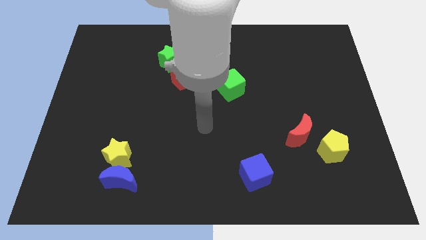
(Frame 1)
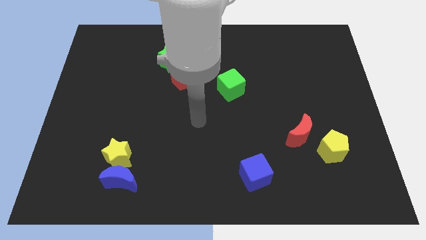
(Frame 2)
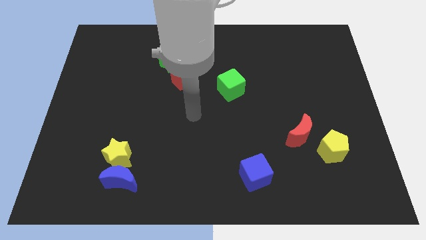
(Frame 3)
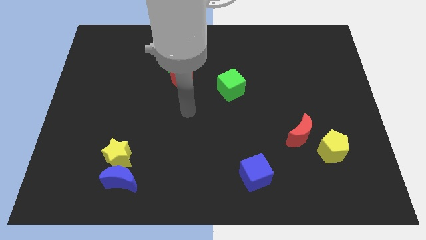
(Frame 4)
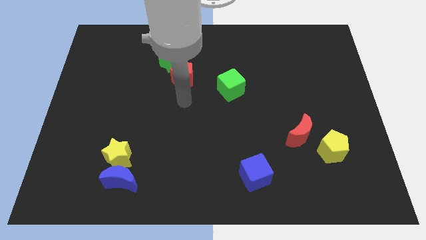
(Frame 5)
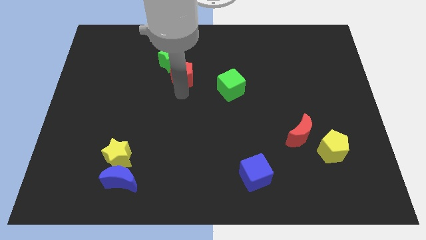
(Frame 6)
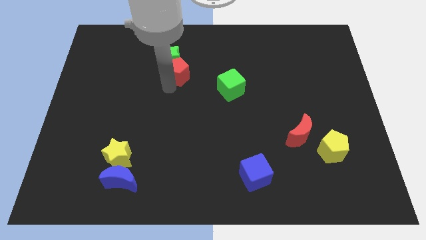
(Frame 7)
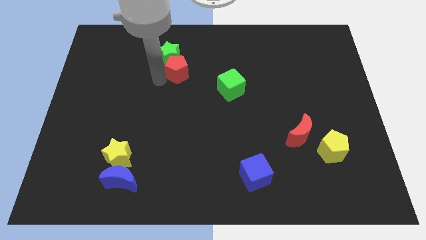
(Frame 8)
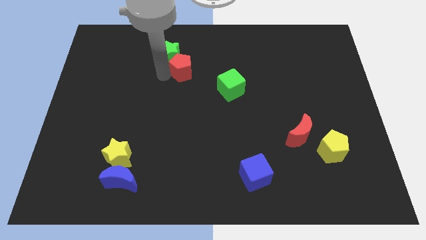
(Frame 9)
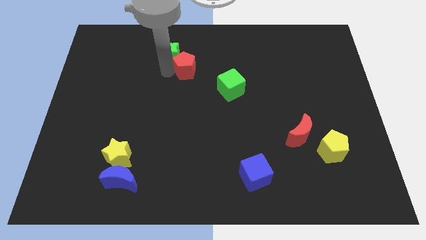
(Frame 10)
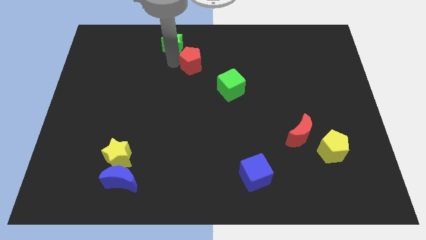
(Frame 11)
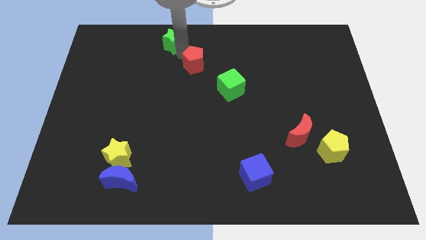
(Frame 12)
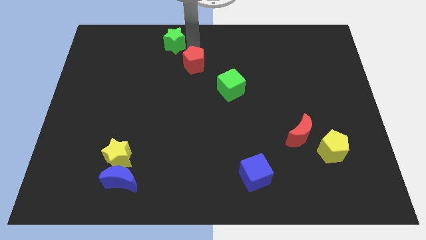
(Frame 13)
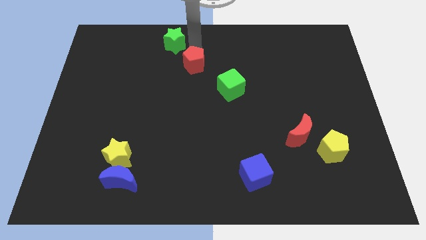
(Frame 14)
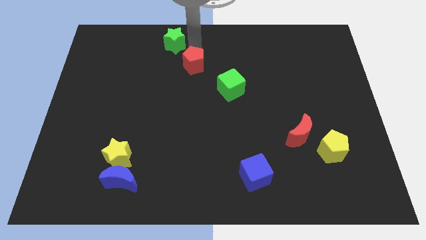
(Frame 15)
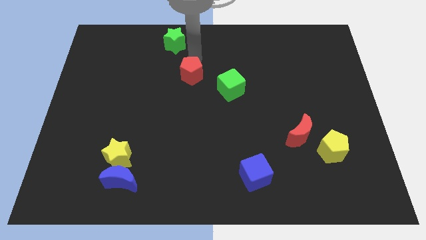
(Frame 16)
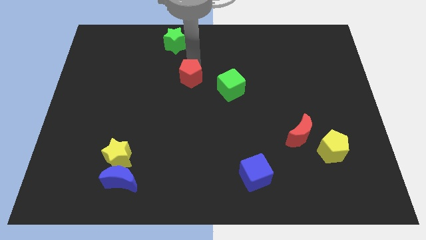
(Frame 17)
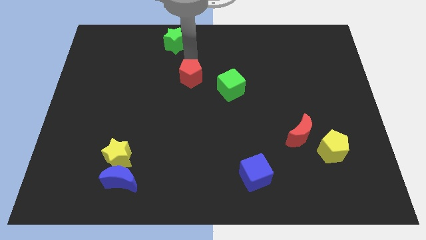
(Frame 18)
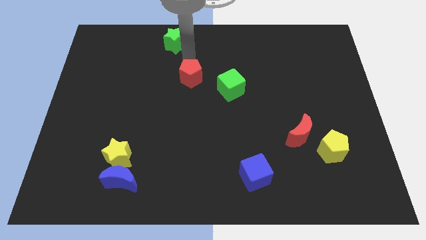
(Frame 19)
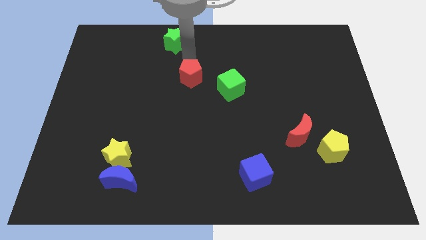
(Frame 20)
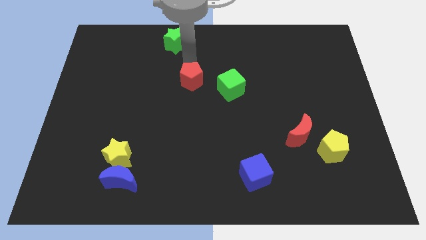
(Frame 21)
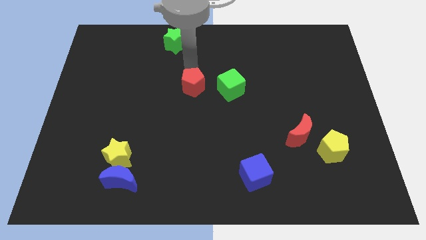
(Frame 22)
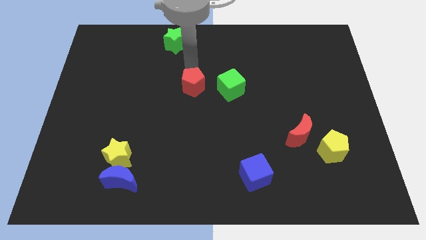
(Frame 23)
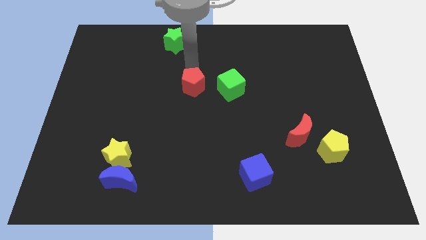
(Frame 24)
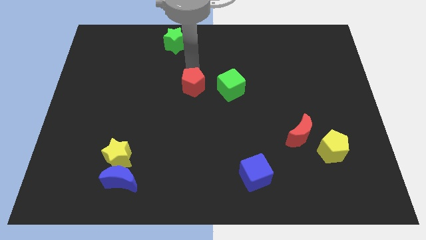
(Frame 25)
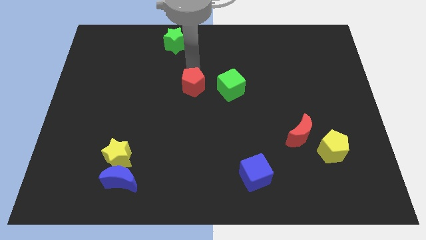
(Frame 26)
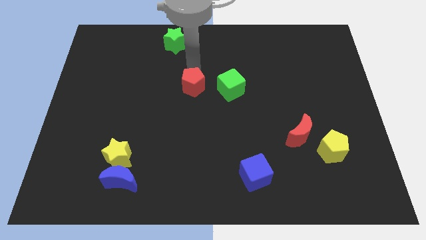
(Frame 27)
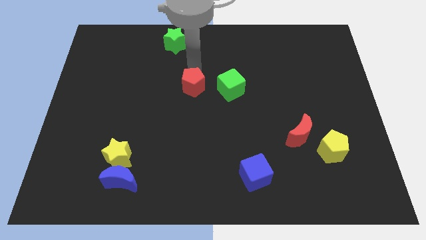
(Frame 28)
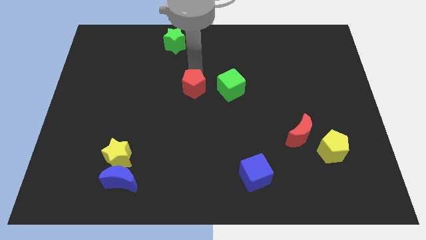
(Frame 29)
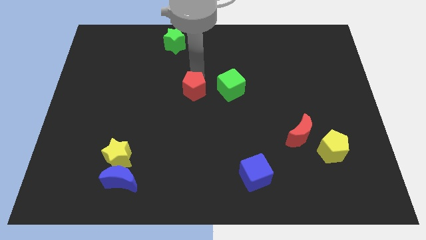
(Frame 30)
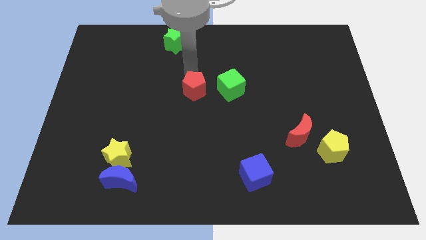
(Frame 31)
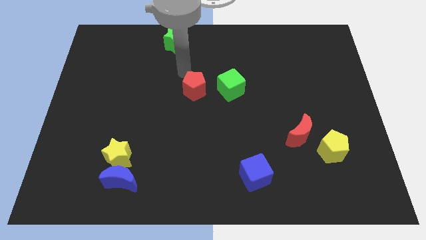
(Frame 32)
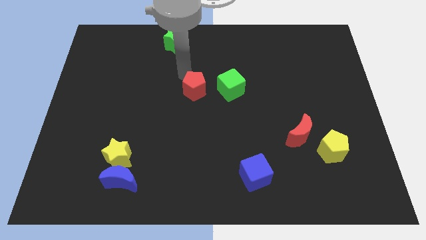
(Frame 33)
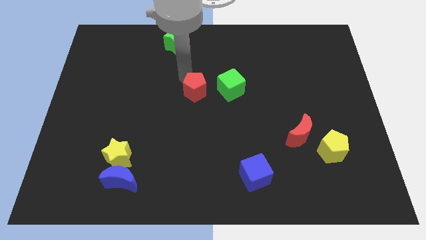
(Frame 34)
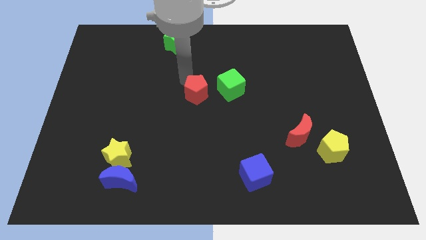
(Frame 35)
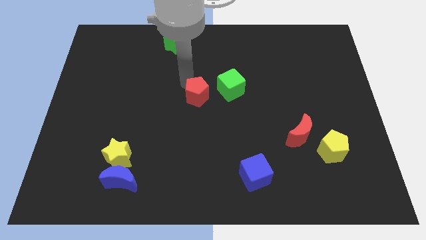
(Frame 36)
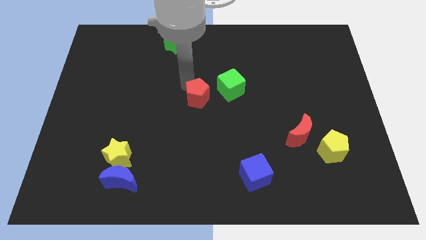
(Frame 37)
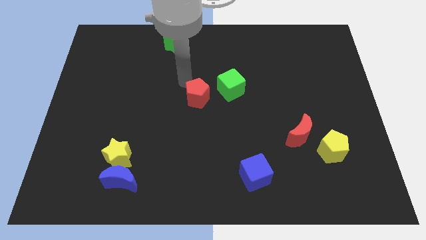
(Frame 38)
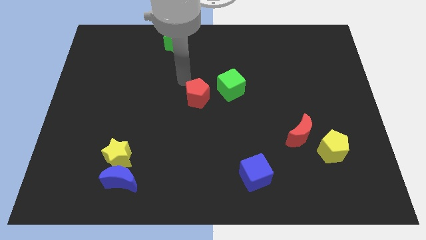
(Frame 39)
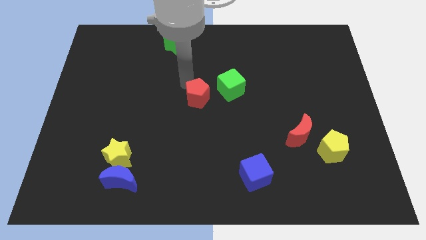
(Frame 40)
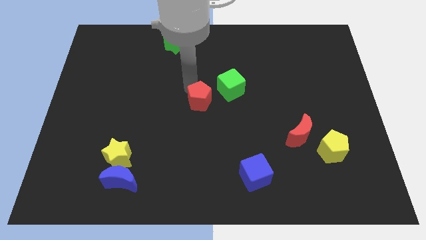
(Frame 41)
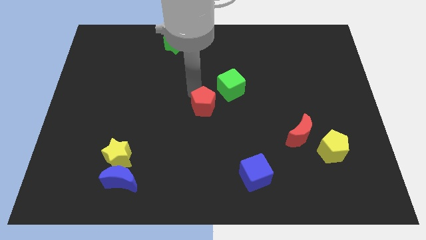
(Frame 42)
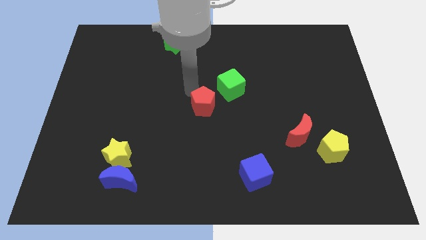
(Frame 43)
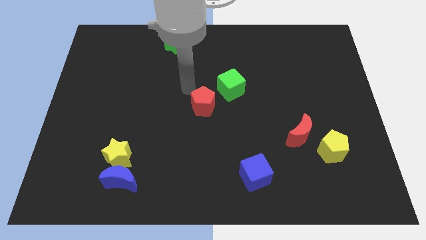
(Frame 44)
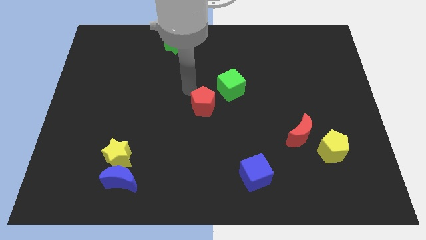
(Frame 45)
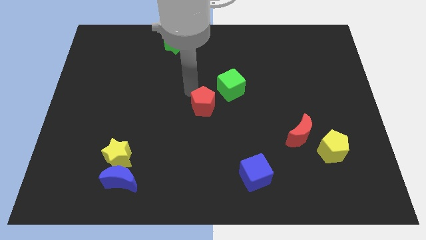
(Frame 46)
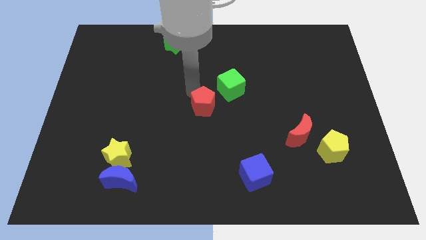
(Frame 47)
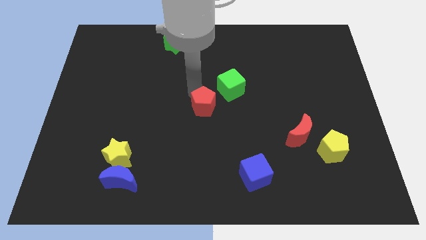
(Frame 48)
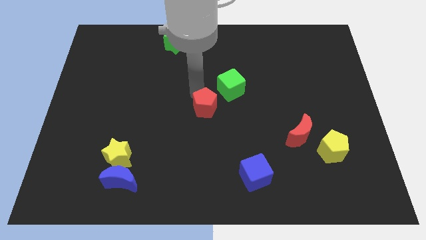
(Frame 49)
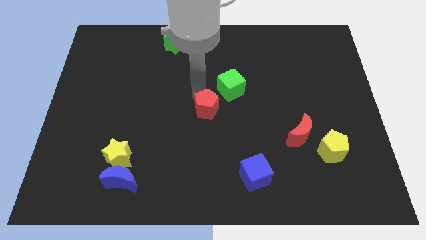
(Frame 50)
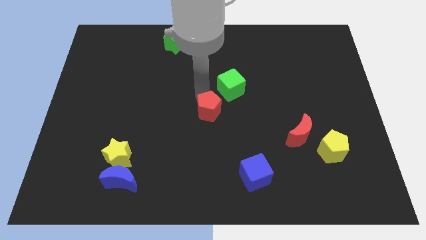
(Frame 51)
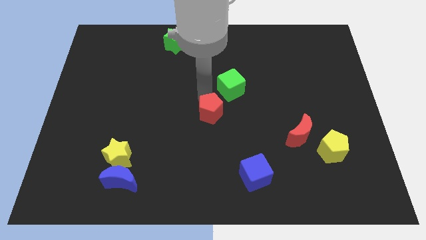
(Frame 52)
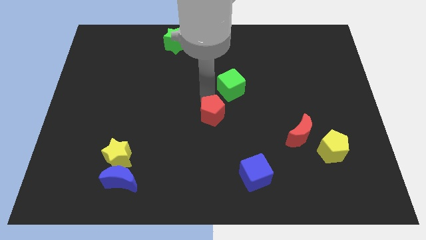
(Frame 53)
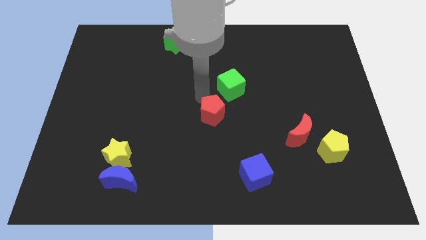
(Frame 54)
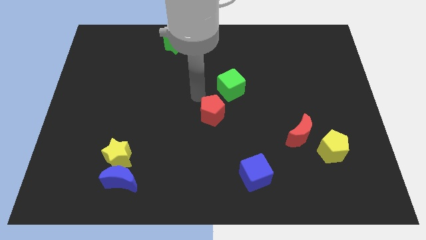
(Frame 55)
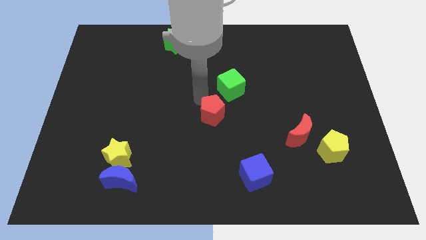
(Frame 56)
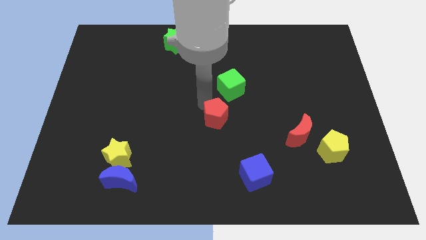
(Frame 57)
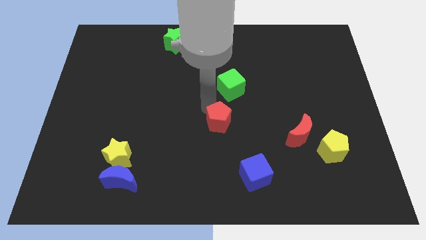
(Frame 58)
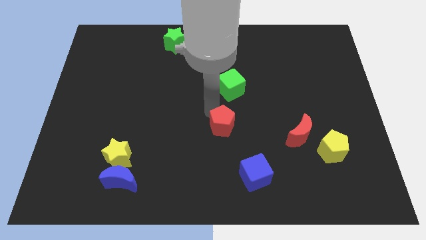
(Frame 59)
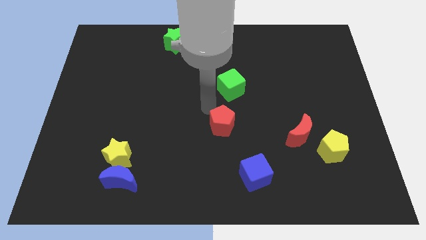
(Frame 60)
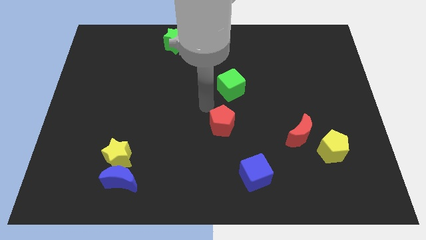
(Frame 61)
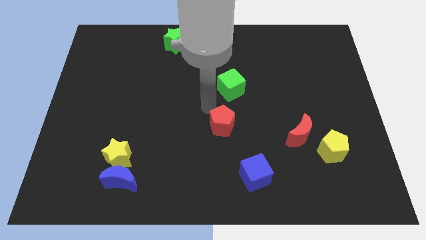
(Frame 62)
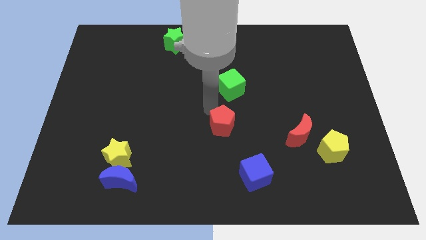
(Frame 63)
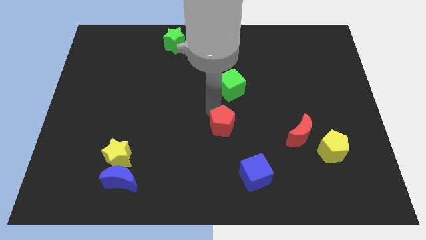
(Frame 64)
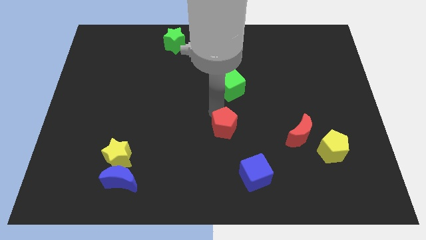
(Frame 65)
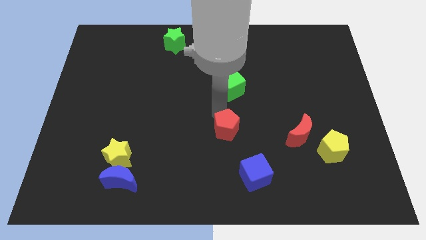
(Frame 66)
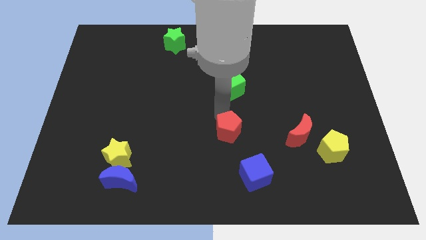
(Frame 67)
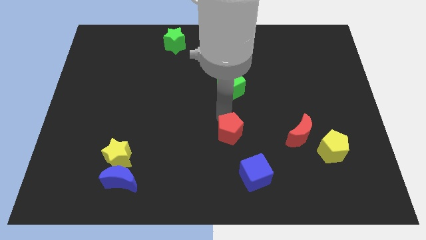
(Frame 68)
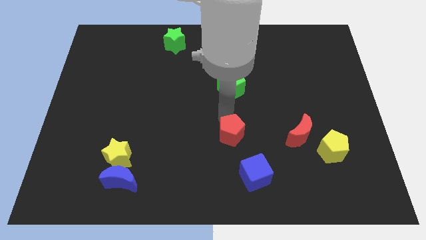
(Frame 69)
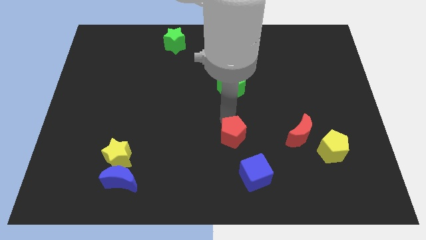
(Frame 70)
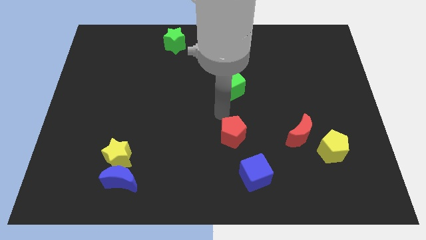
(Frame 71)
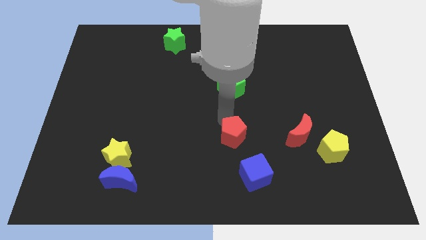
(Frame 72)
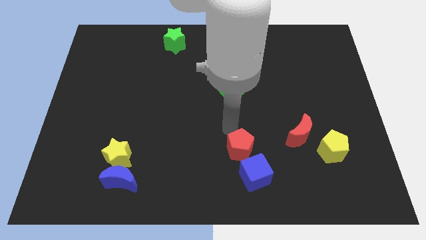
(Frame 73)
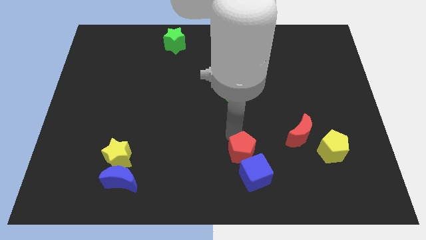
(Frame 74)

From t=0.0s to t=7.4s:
slide the red pentagon towards the blue cube
